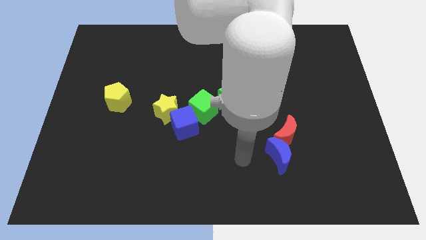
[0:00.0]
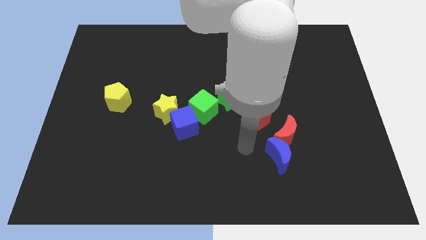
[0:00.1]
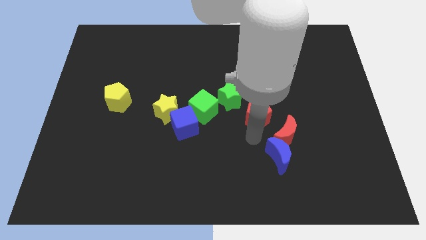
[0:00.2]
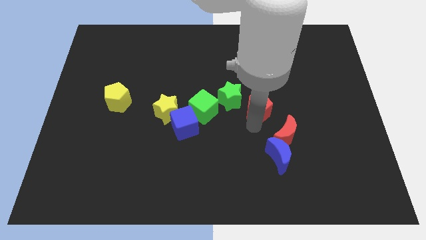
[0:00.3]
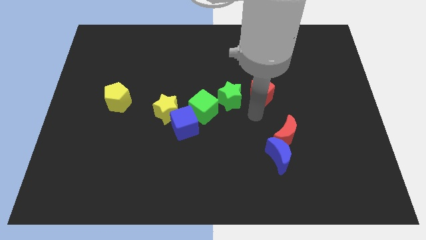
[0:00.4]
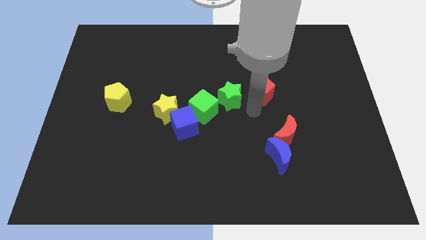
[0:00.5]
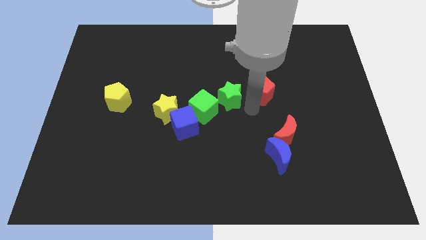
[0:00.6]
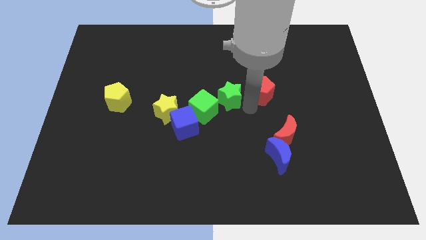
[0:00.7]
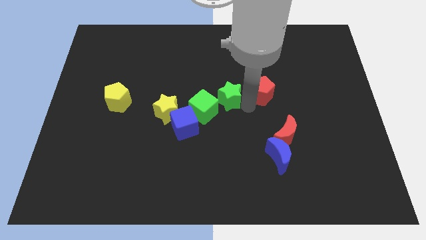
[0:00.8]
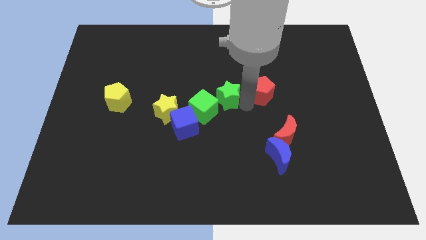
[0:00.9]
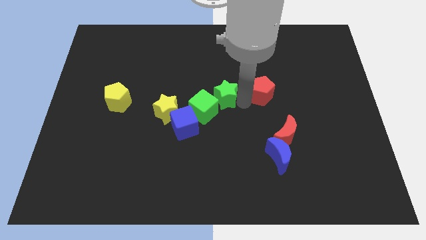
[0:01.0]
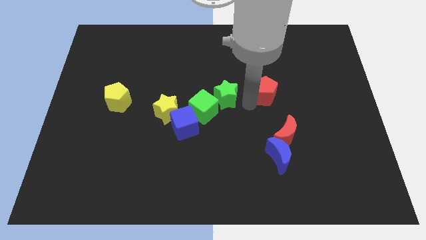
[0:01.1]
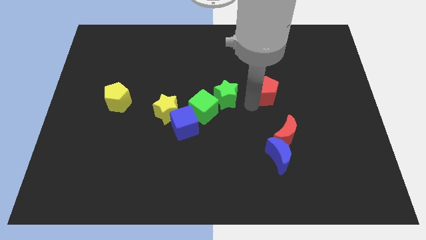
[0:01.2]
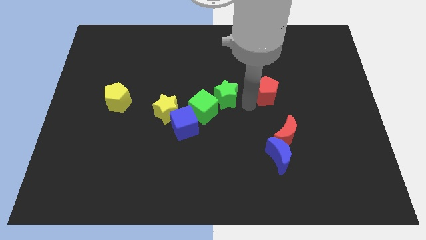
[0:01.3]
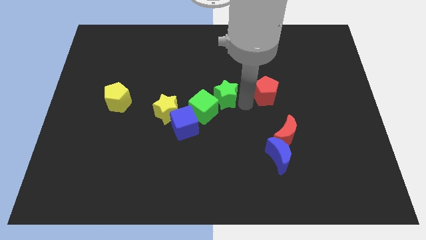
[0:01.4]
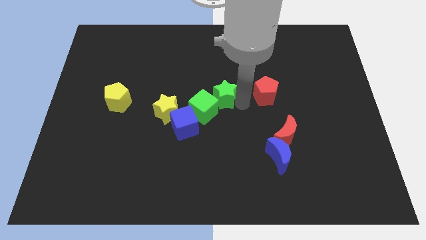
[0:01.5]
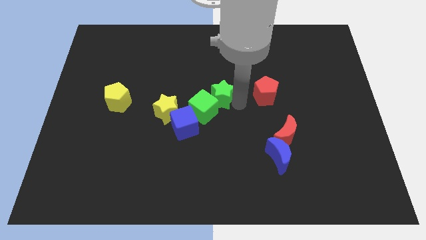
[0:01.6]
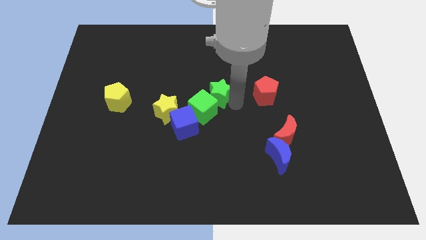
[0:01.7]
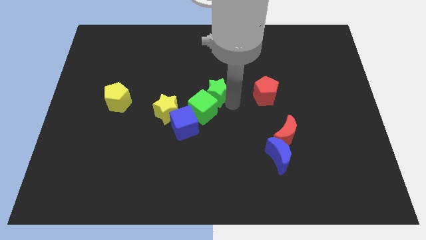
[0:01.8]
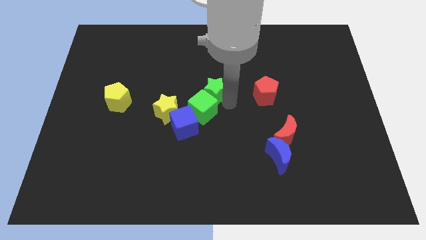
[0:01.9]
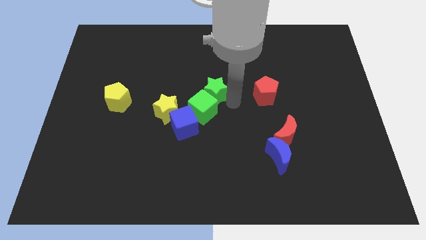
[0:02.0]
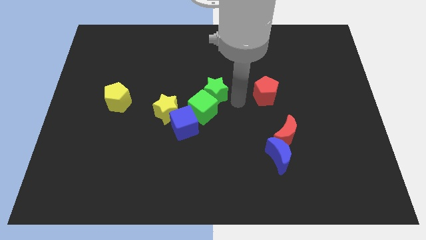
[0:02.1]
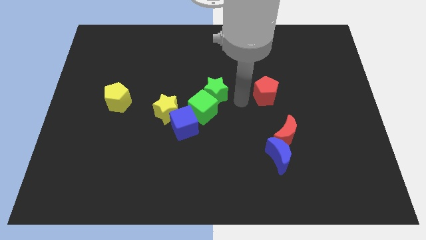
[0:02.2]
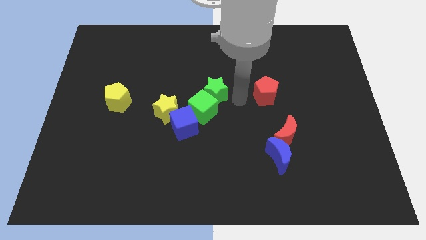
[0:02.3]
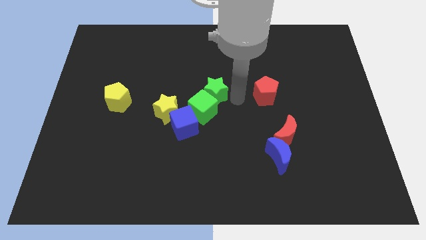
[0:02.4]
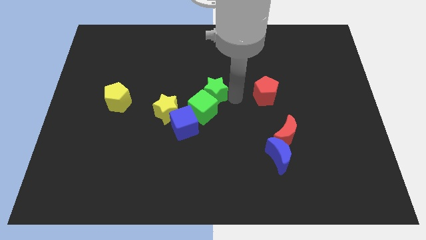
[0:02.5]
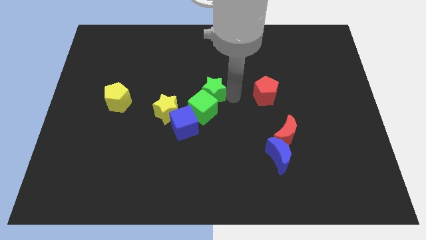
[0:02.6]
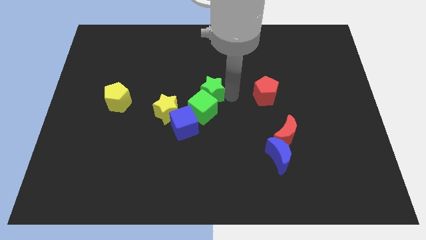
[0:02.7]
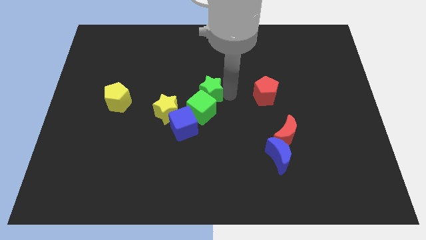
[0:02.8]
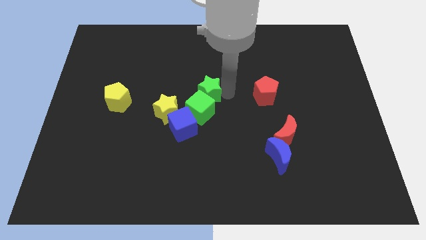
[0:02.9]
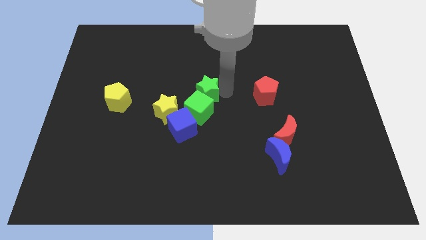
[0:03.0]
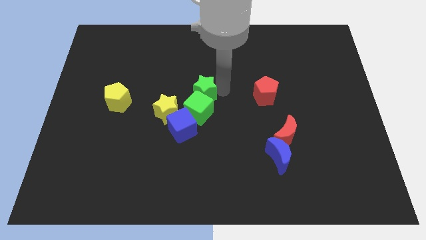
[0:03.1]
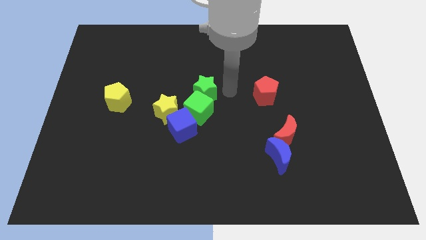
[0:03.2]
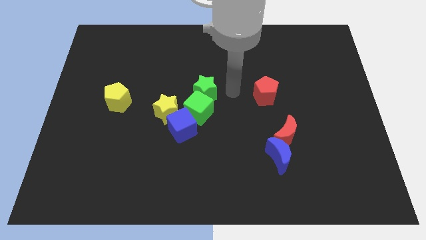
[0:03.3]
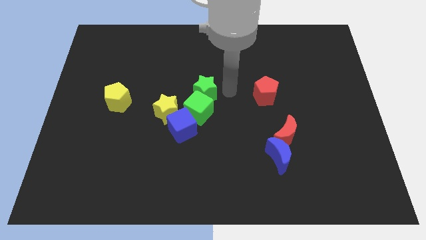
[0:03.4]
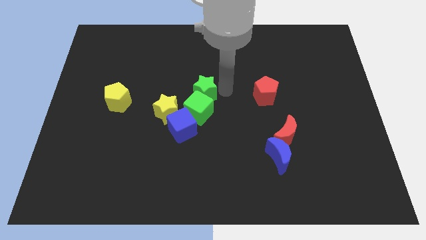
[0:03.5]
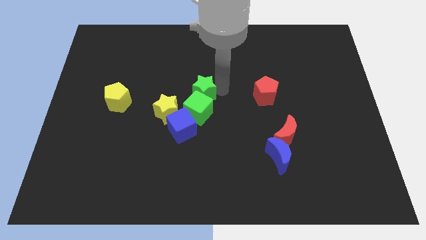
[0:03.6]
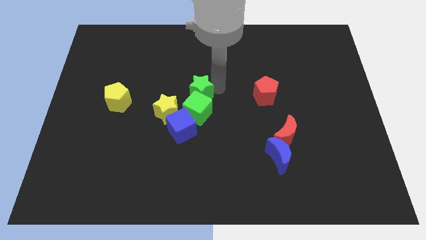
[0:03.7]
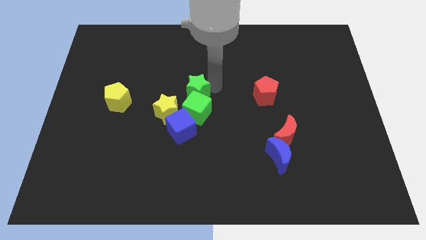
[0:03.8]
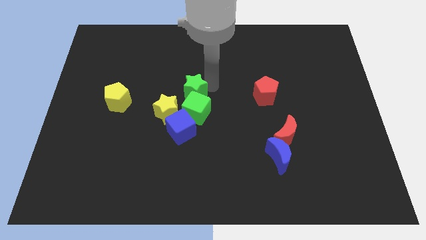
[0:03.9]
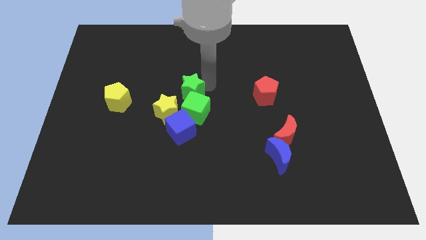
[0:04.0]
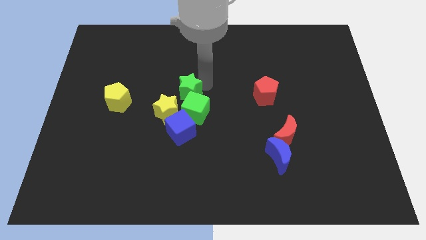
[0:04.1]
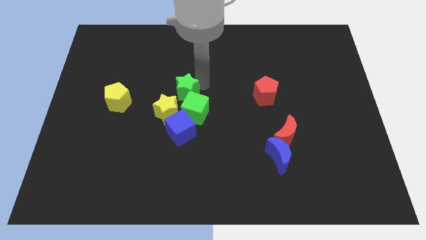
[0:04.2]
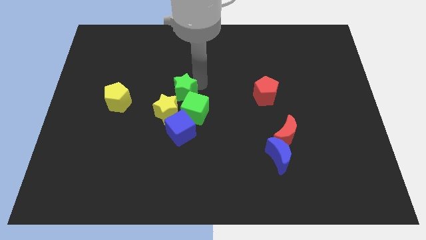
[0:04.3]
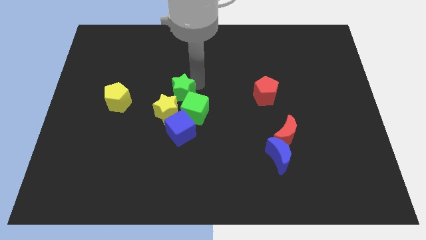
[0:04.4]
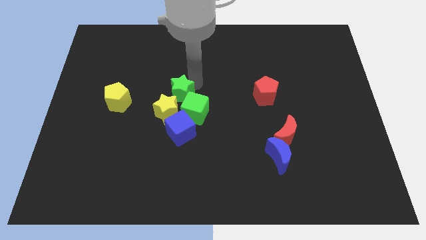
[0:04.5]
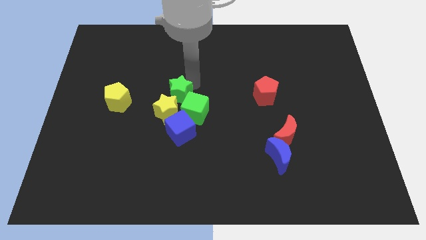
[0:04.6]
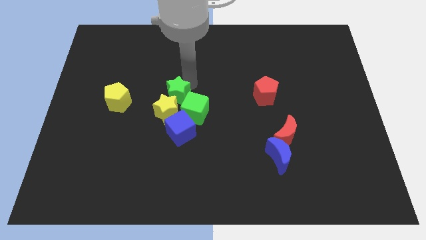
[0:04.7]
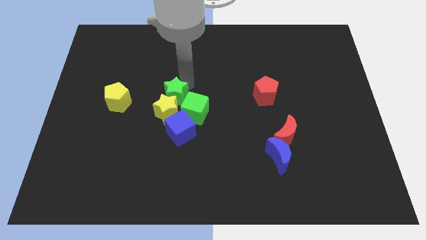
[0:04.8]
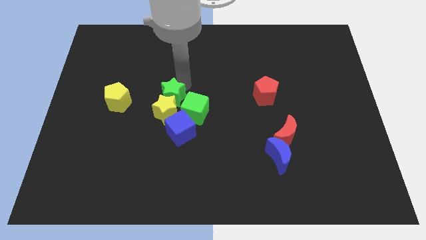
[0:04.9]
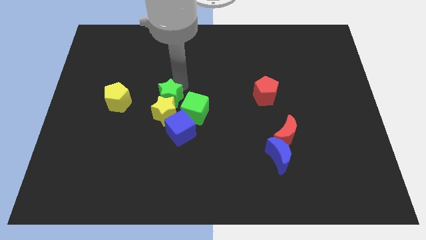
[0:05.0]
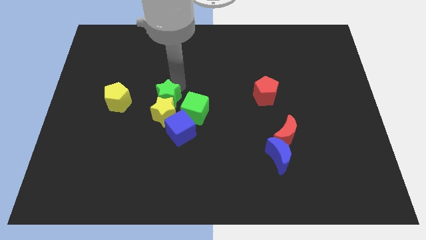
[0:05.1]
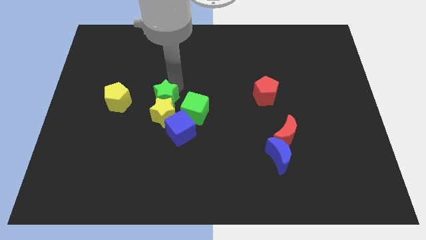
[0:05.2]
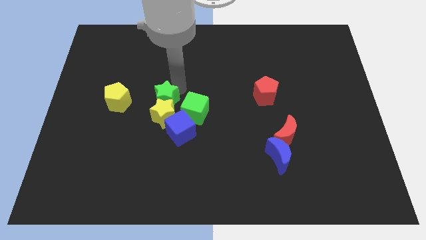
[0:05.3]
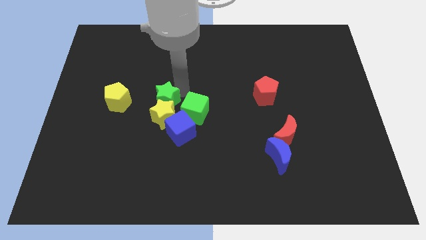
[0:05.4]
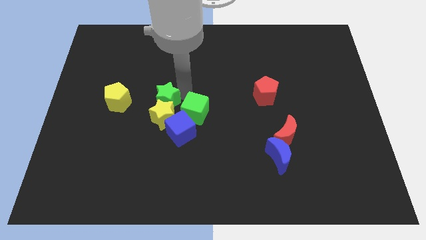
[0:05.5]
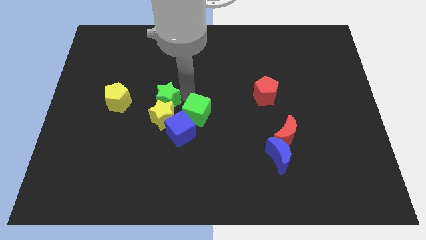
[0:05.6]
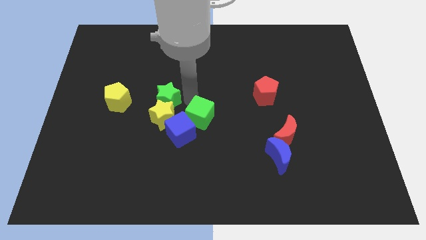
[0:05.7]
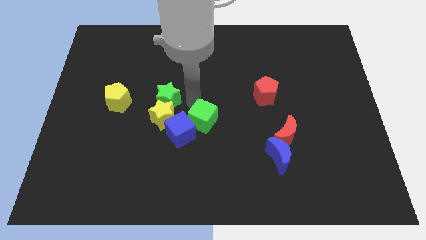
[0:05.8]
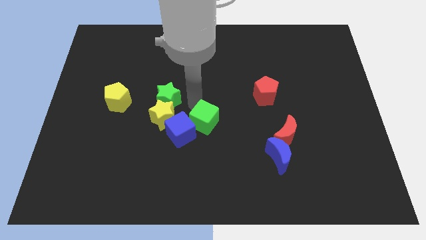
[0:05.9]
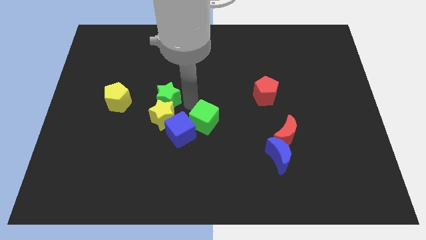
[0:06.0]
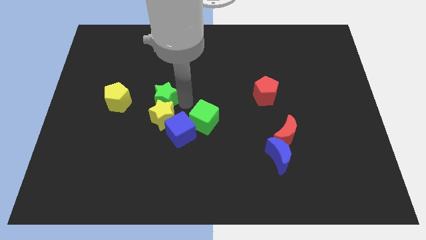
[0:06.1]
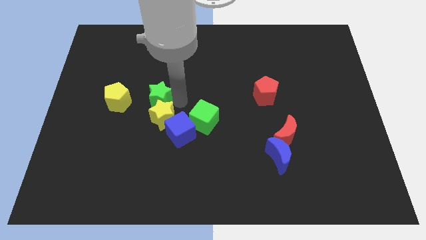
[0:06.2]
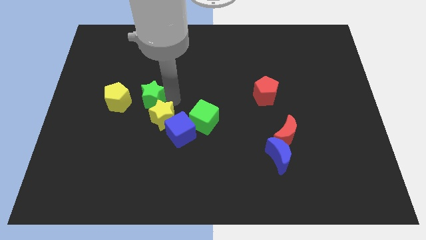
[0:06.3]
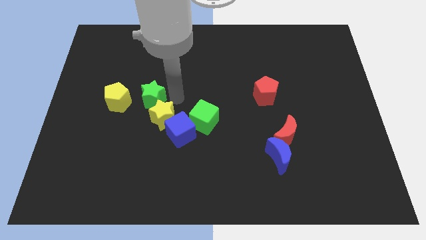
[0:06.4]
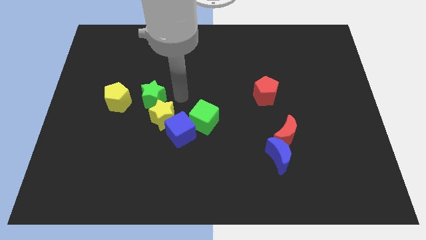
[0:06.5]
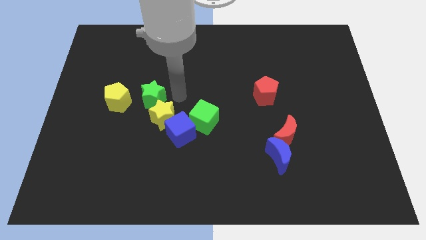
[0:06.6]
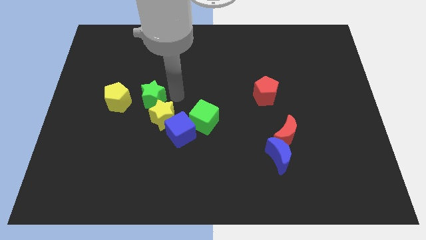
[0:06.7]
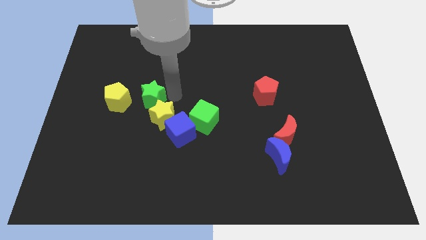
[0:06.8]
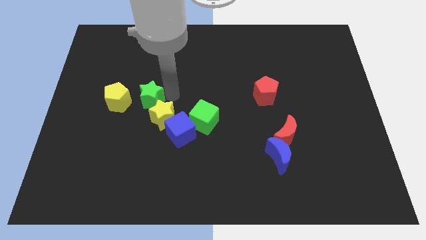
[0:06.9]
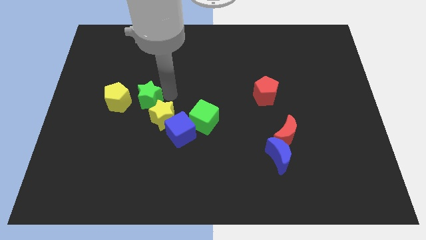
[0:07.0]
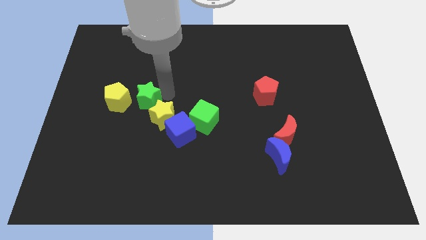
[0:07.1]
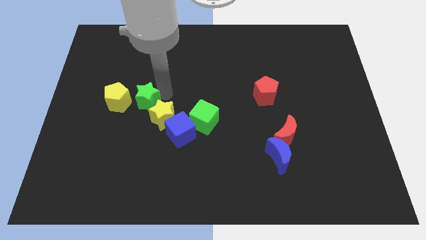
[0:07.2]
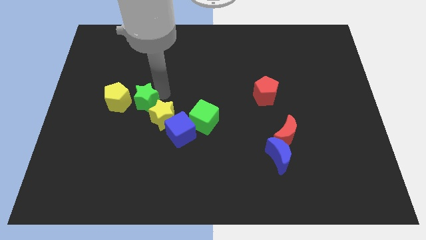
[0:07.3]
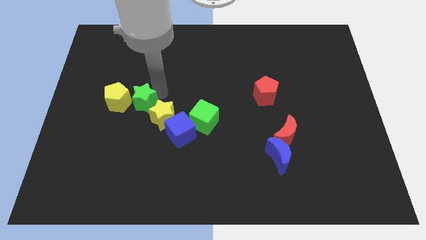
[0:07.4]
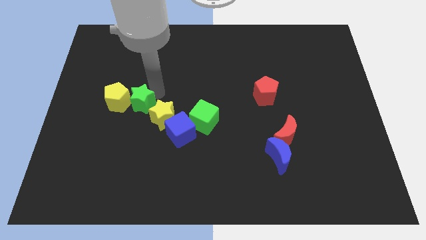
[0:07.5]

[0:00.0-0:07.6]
slide the green star close to the yellow pentagon

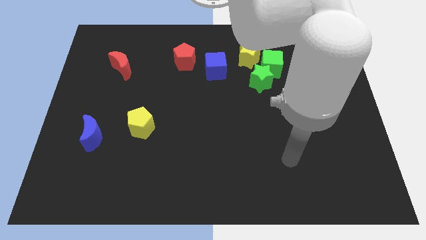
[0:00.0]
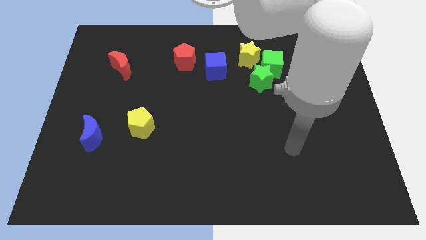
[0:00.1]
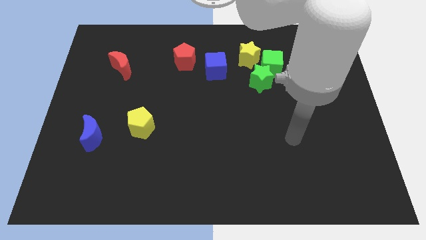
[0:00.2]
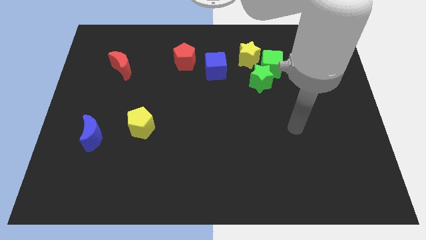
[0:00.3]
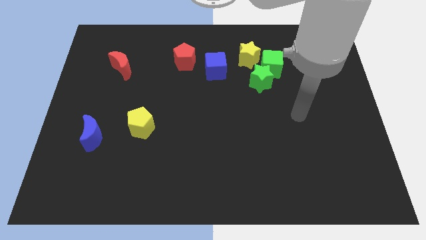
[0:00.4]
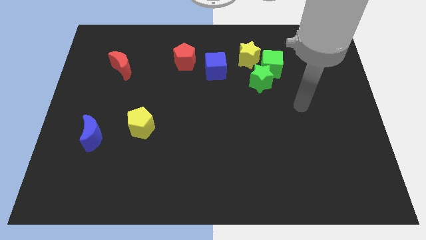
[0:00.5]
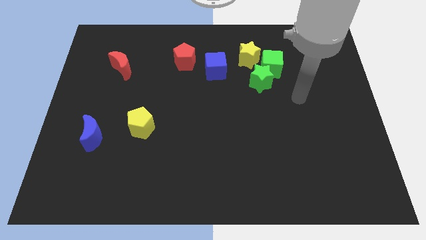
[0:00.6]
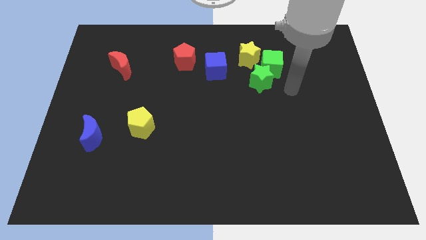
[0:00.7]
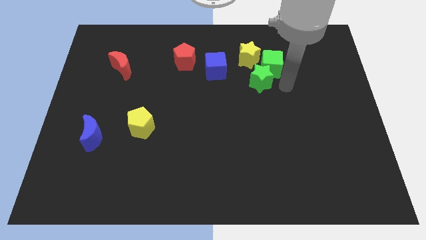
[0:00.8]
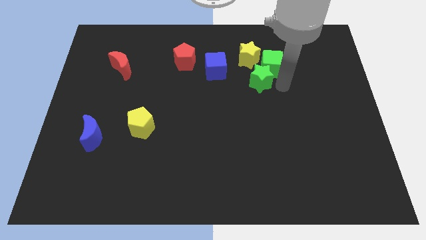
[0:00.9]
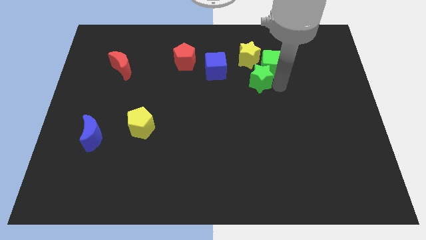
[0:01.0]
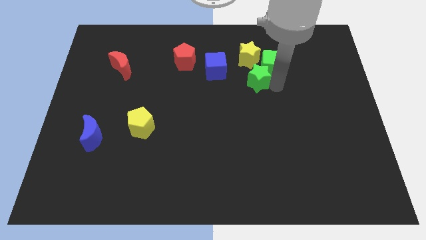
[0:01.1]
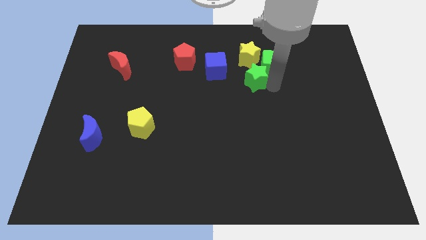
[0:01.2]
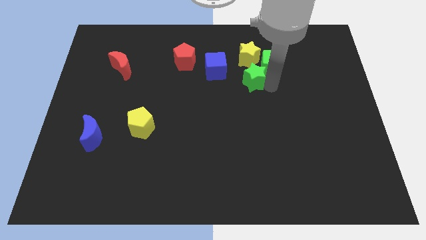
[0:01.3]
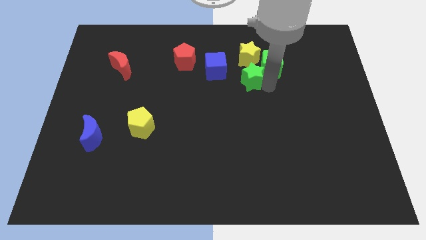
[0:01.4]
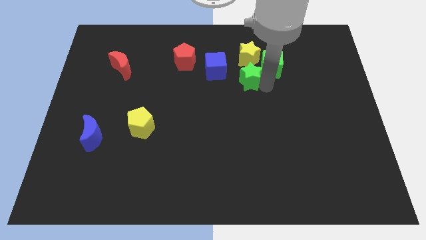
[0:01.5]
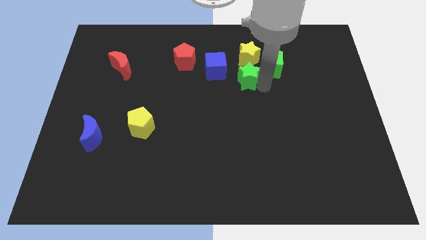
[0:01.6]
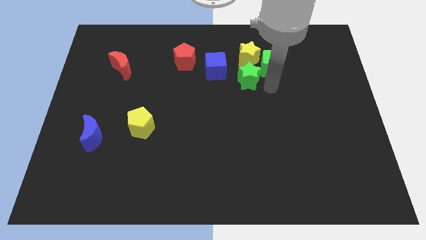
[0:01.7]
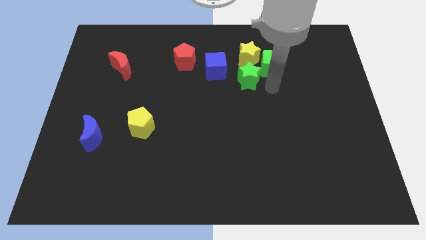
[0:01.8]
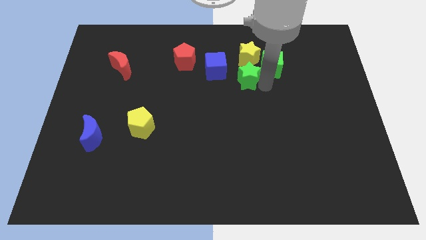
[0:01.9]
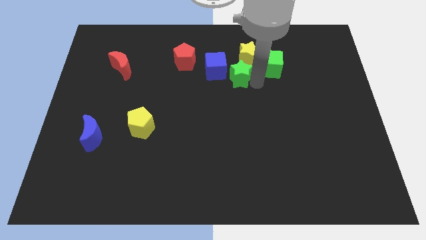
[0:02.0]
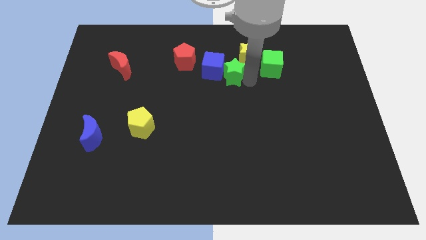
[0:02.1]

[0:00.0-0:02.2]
slide the green star close to the blue cube
